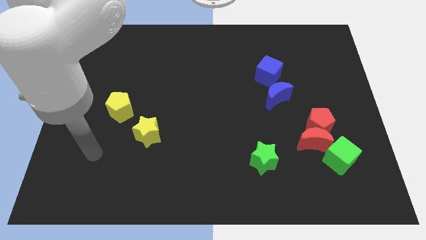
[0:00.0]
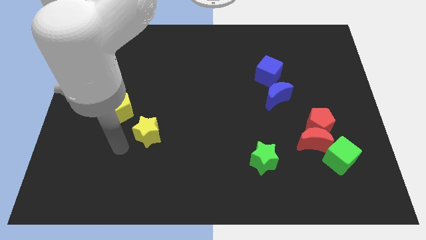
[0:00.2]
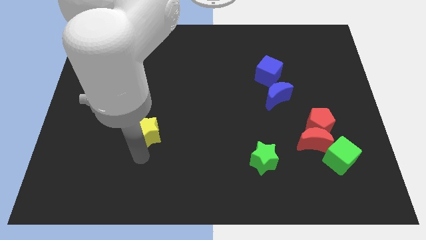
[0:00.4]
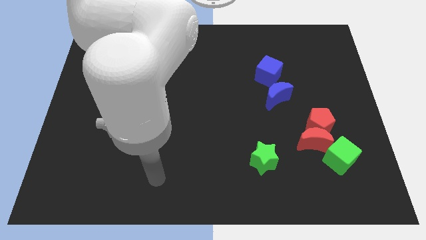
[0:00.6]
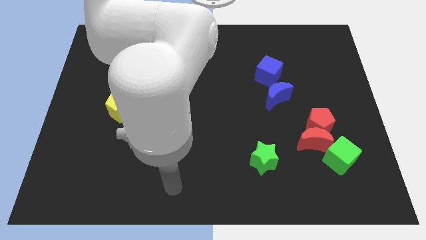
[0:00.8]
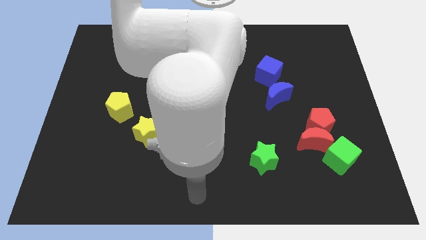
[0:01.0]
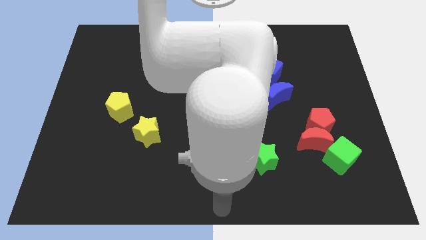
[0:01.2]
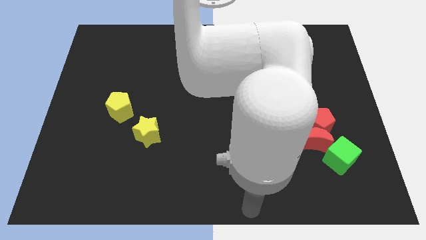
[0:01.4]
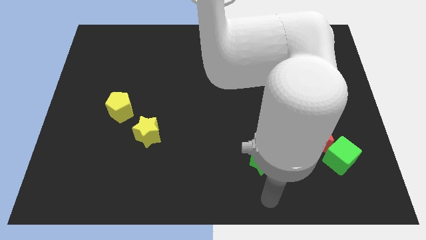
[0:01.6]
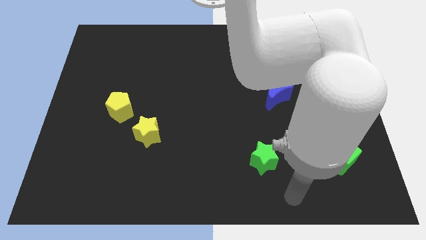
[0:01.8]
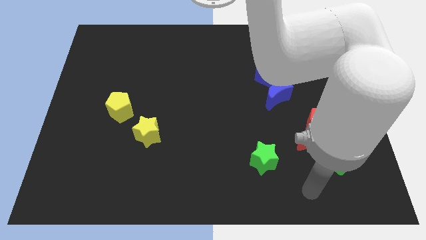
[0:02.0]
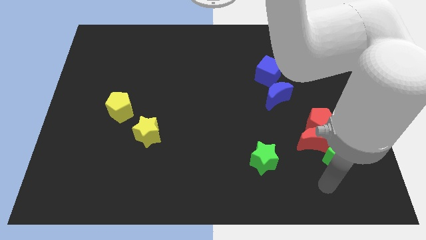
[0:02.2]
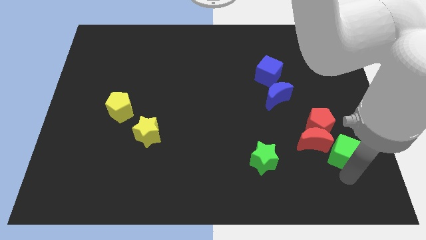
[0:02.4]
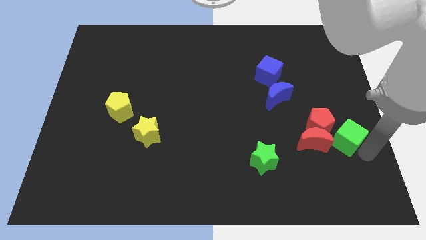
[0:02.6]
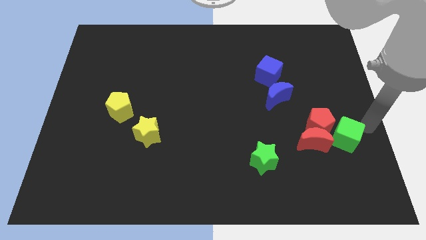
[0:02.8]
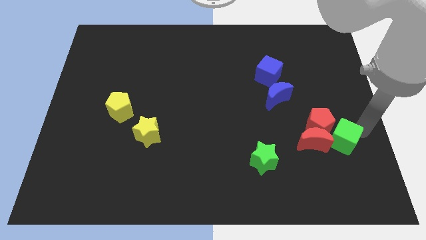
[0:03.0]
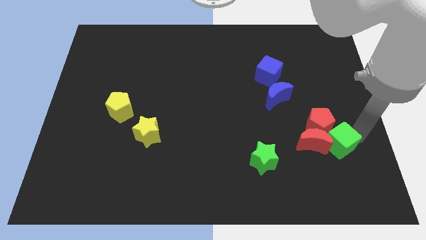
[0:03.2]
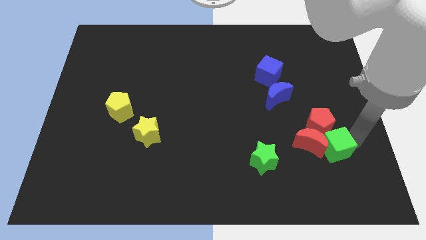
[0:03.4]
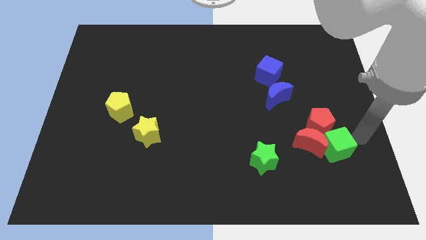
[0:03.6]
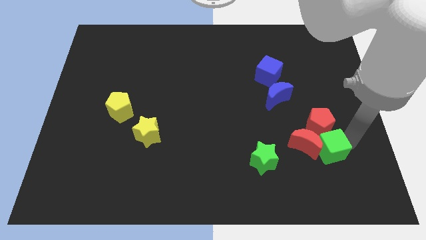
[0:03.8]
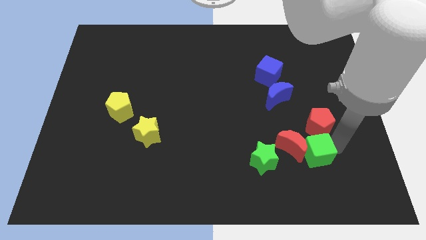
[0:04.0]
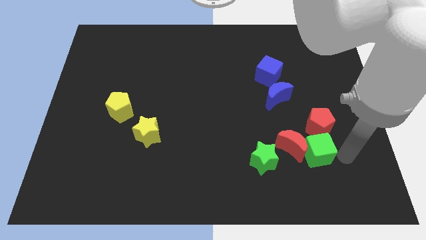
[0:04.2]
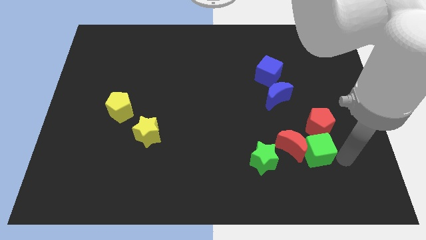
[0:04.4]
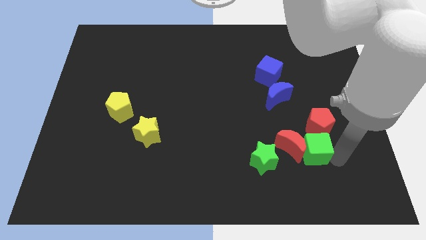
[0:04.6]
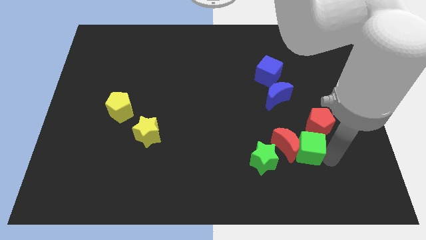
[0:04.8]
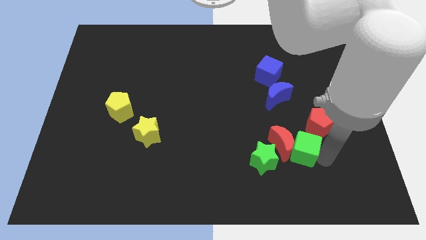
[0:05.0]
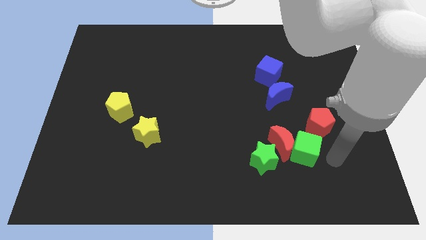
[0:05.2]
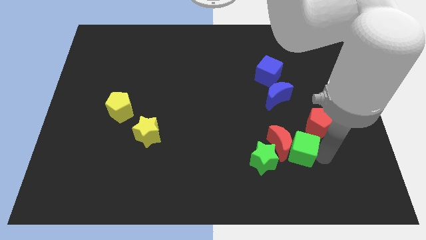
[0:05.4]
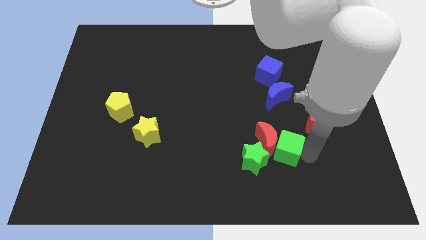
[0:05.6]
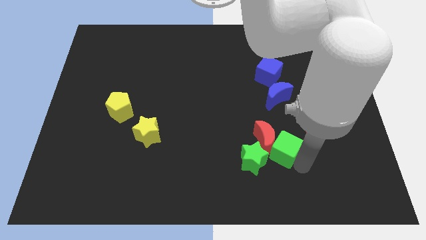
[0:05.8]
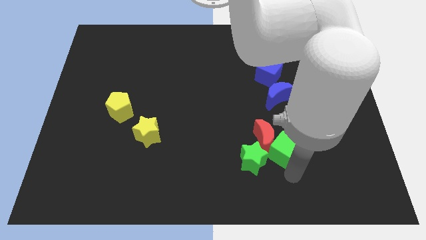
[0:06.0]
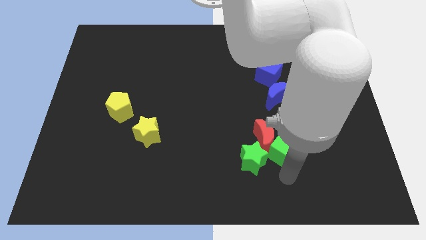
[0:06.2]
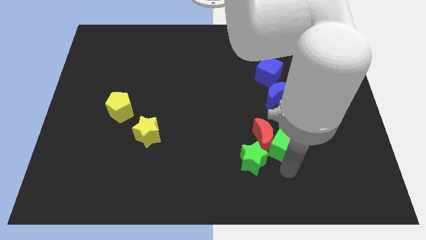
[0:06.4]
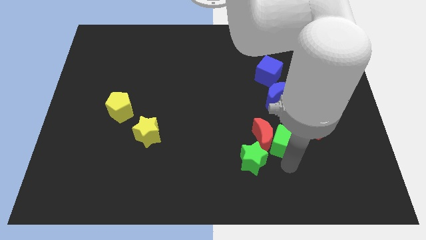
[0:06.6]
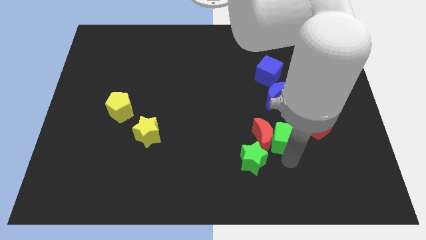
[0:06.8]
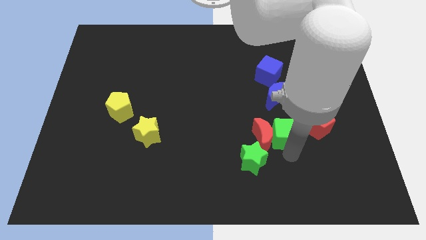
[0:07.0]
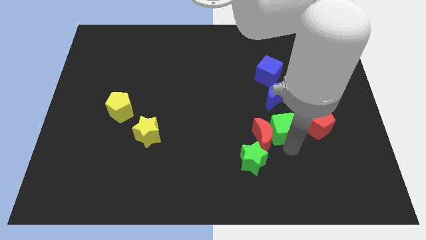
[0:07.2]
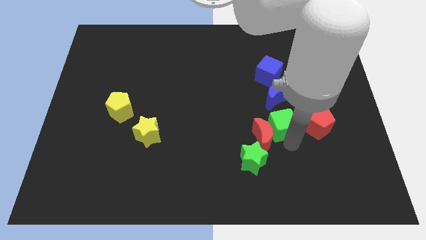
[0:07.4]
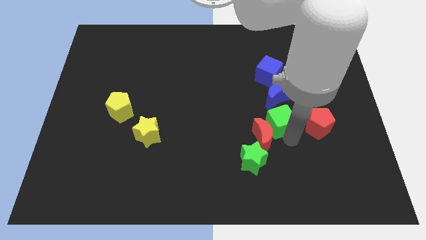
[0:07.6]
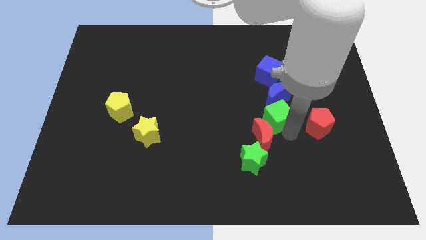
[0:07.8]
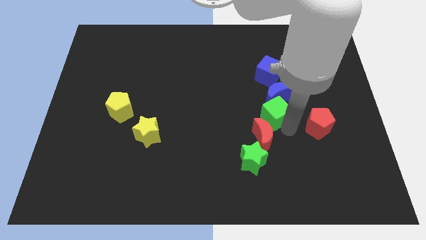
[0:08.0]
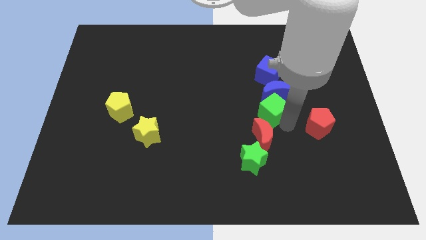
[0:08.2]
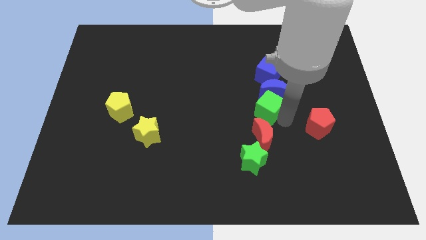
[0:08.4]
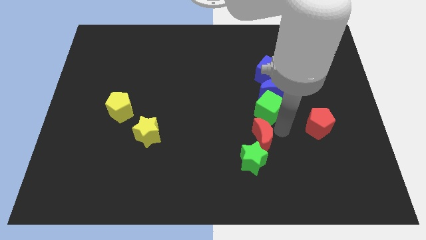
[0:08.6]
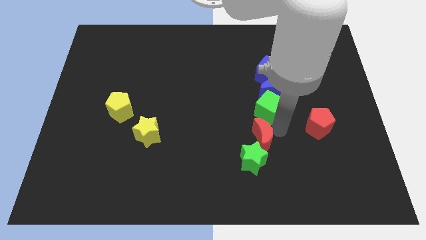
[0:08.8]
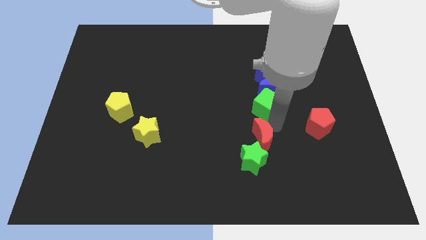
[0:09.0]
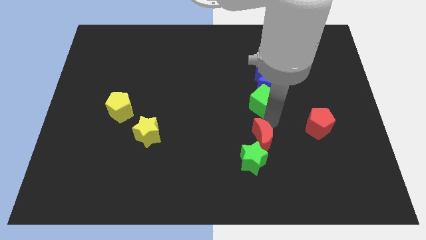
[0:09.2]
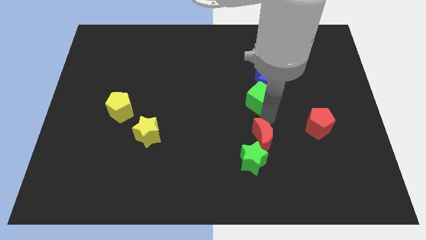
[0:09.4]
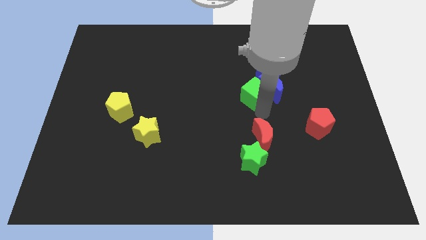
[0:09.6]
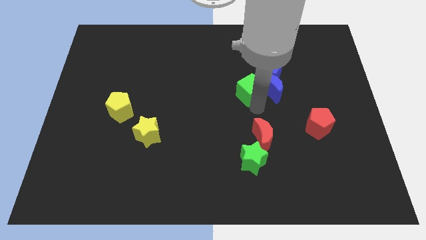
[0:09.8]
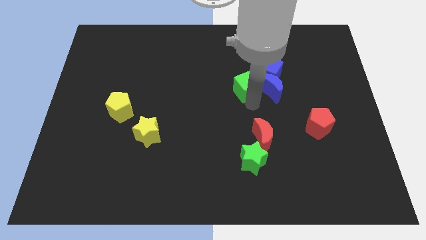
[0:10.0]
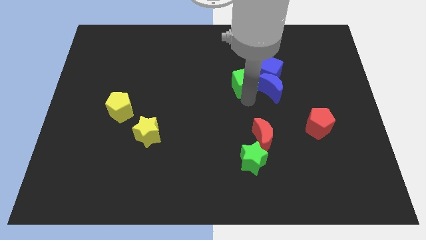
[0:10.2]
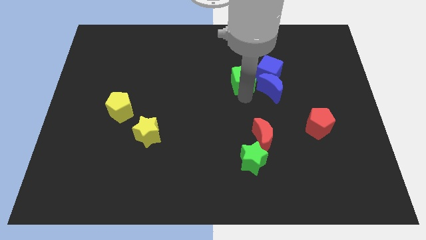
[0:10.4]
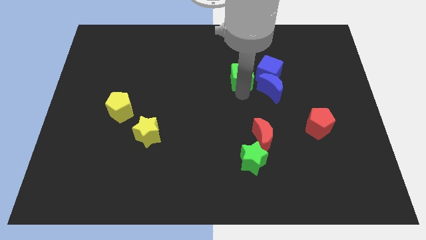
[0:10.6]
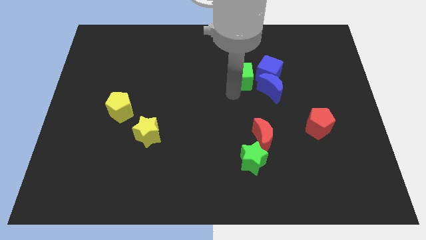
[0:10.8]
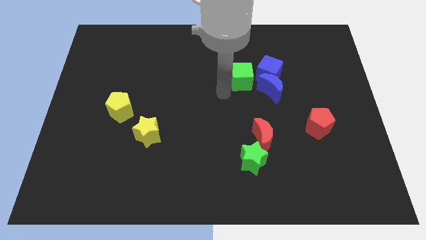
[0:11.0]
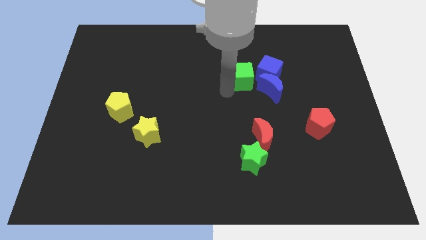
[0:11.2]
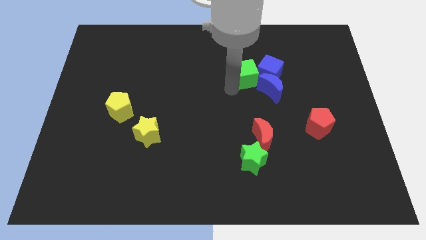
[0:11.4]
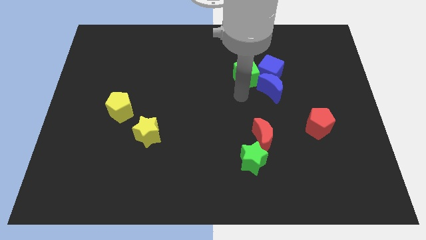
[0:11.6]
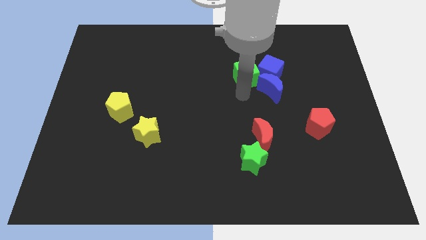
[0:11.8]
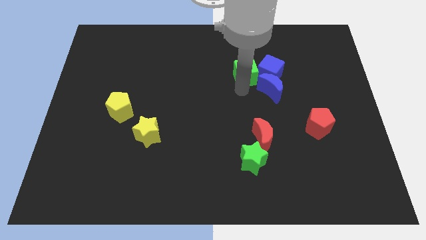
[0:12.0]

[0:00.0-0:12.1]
slide the green cube to the top left side of the blue cube

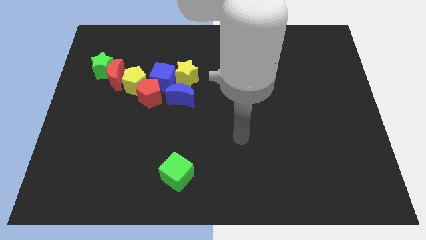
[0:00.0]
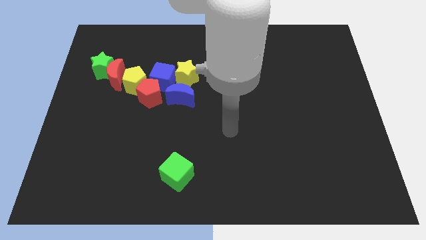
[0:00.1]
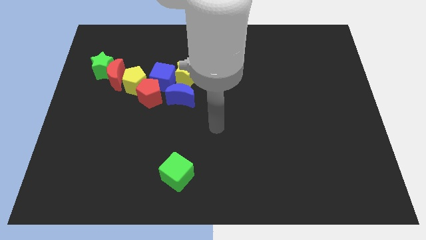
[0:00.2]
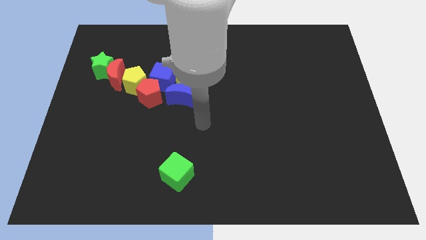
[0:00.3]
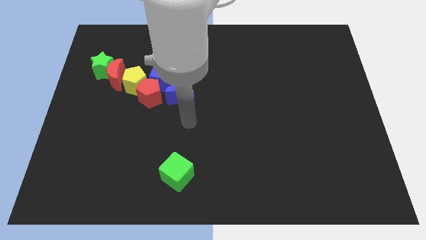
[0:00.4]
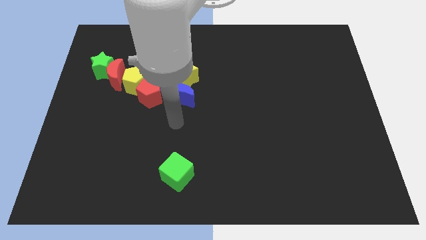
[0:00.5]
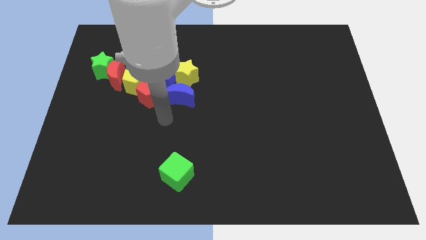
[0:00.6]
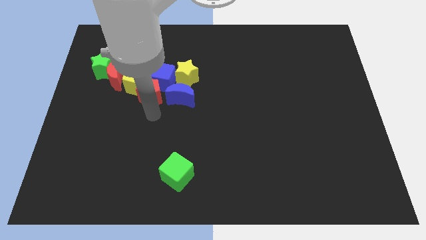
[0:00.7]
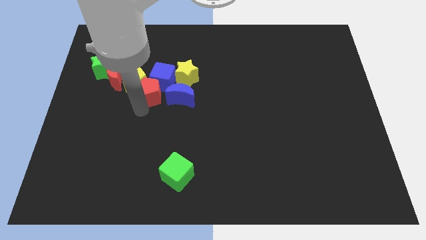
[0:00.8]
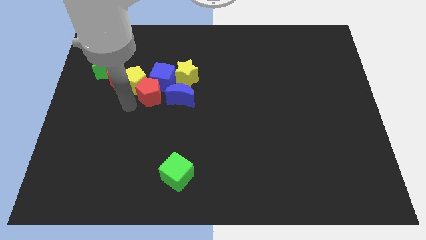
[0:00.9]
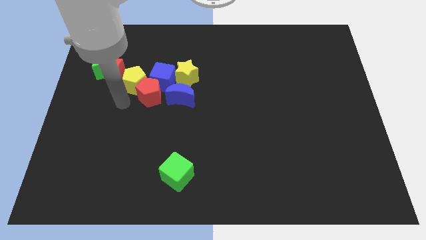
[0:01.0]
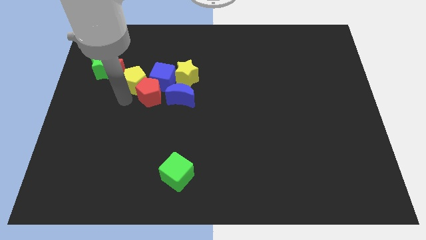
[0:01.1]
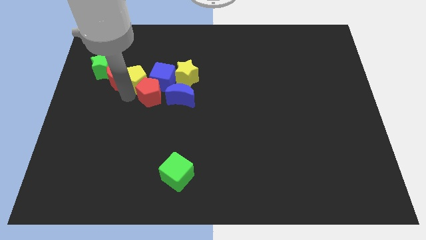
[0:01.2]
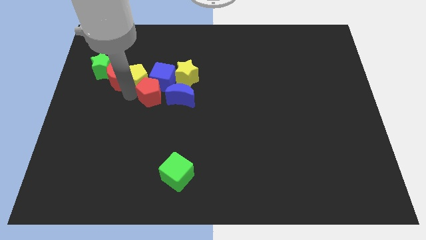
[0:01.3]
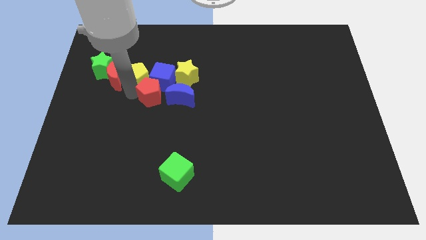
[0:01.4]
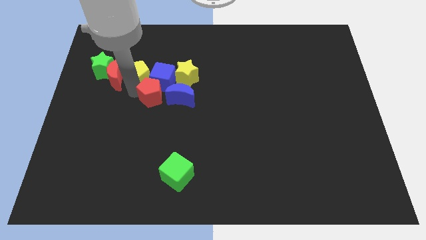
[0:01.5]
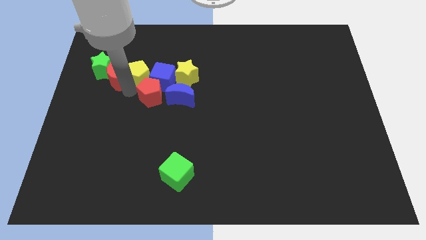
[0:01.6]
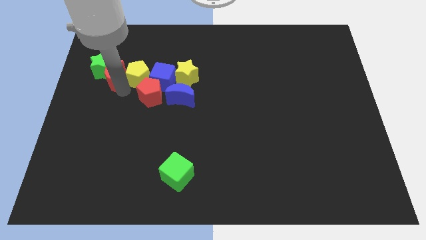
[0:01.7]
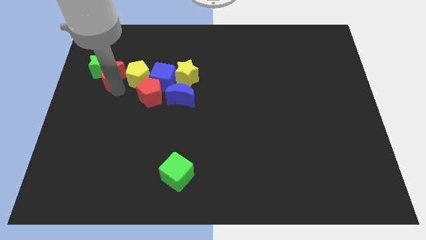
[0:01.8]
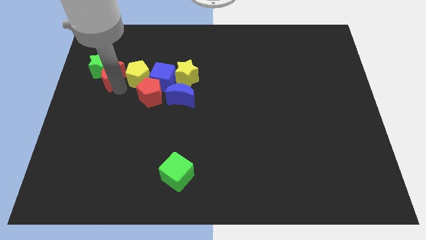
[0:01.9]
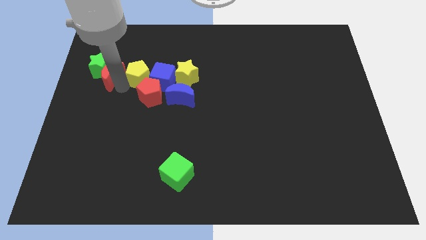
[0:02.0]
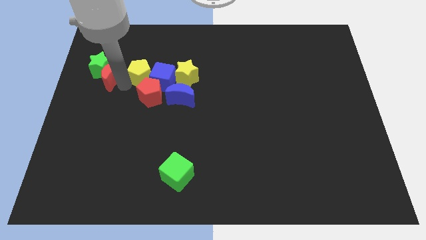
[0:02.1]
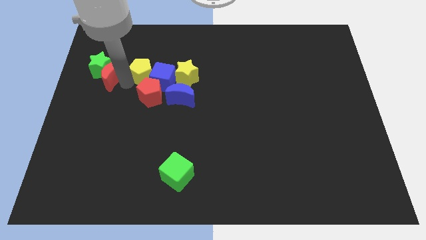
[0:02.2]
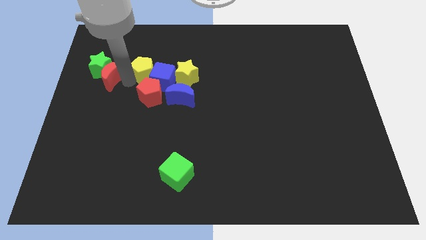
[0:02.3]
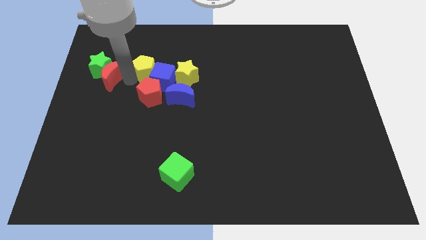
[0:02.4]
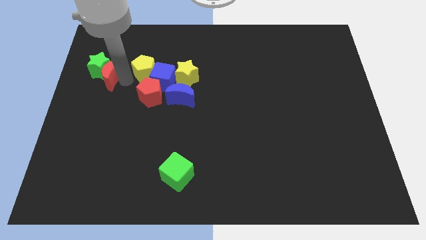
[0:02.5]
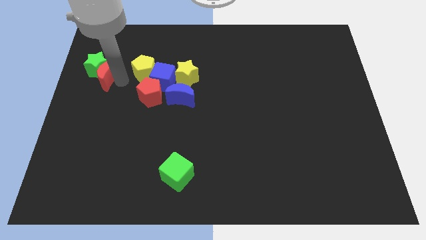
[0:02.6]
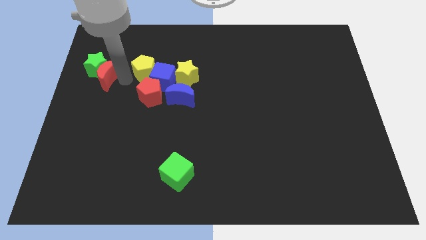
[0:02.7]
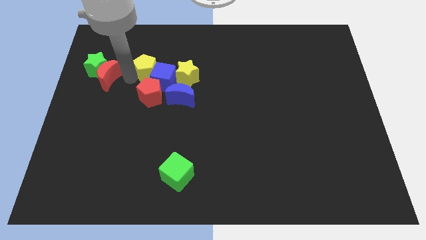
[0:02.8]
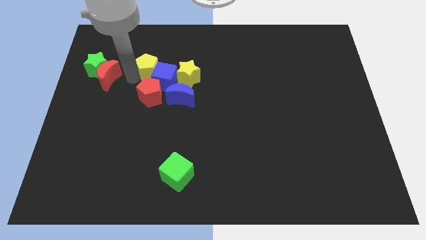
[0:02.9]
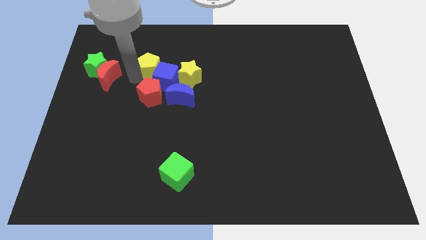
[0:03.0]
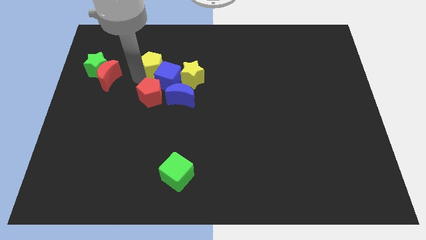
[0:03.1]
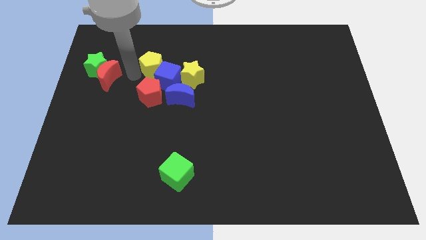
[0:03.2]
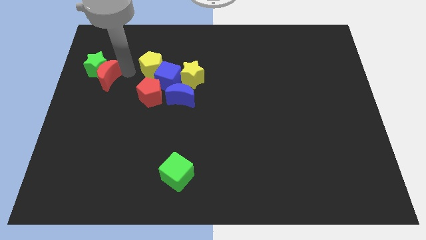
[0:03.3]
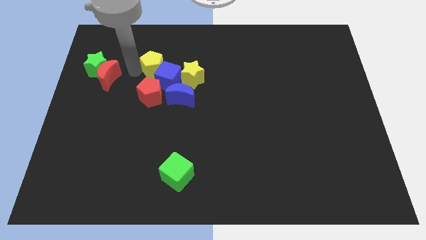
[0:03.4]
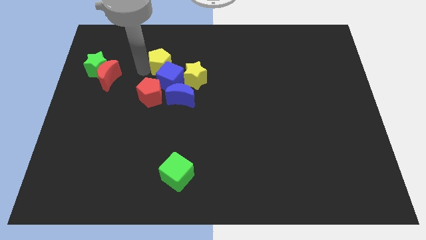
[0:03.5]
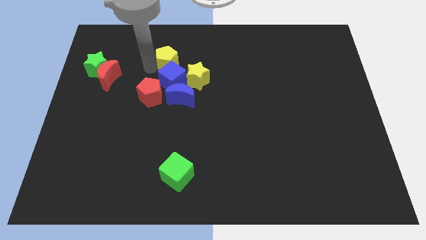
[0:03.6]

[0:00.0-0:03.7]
put the yellow pentagon to the top of the blue moon
